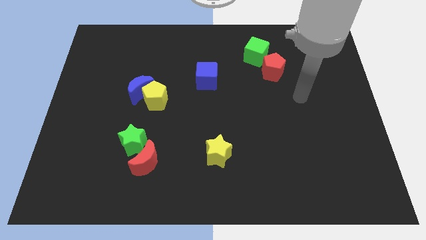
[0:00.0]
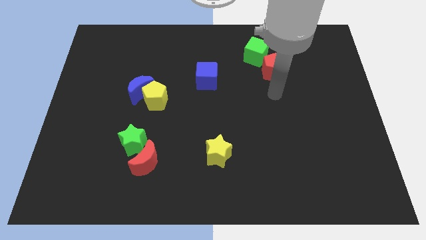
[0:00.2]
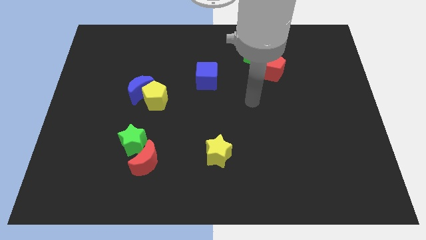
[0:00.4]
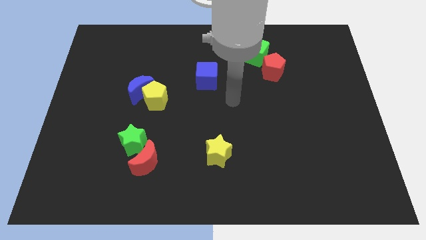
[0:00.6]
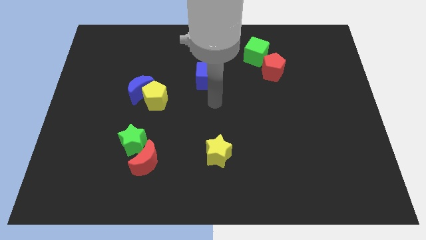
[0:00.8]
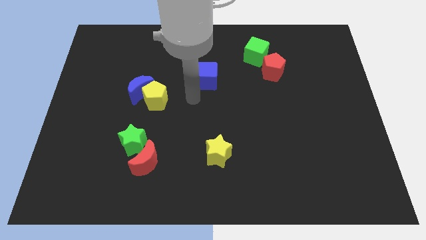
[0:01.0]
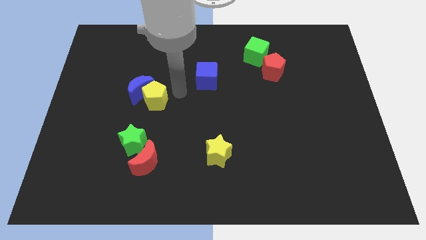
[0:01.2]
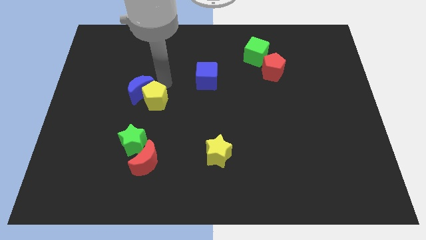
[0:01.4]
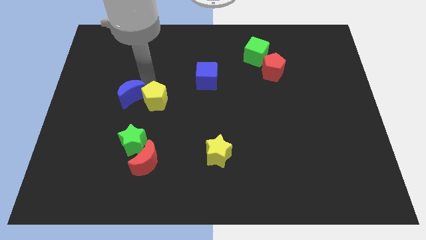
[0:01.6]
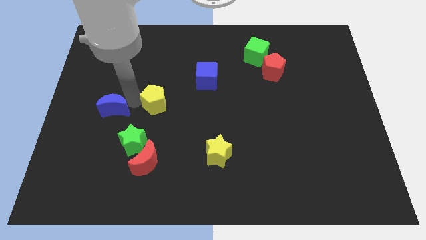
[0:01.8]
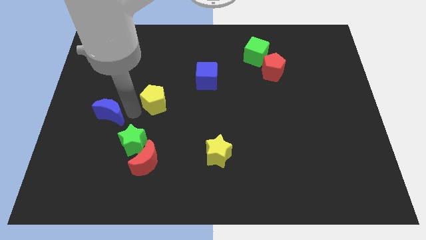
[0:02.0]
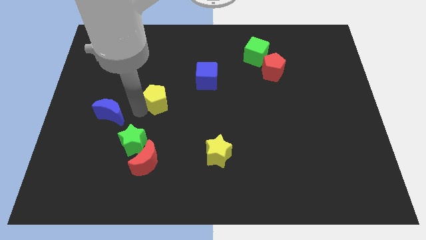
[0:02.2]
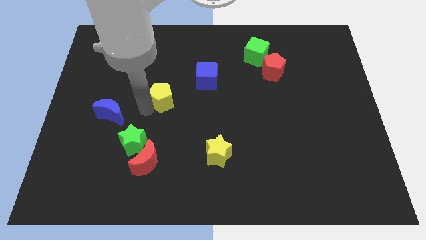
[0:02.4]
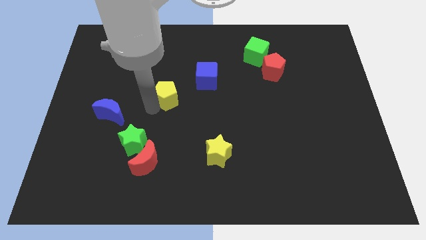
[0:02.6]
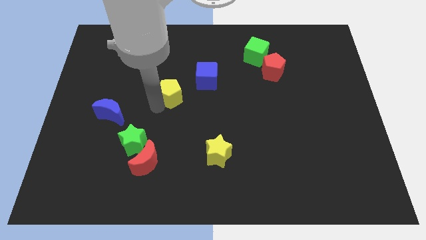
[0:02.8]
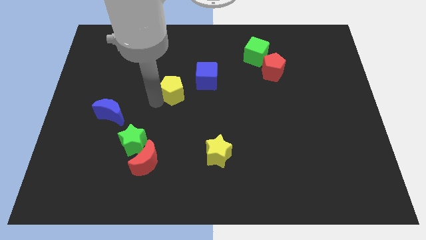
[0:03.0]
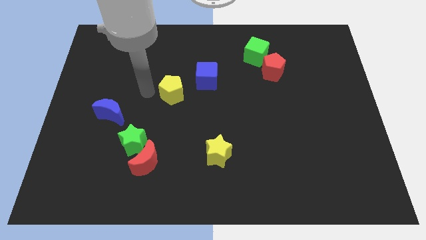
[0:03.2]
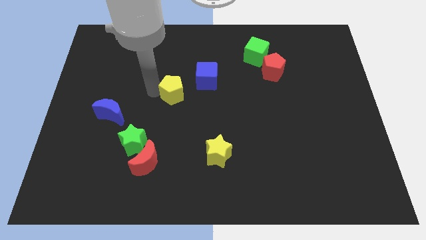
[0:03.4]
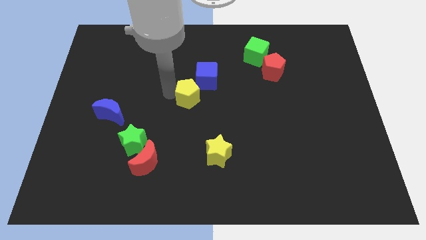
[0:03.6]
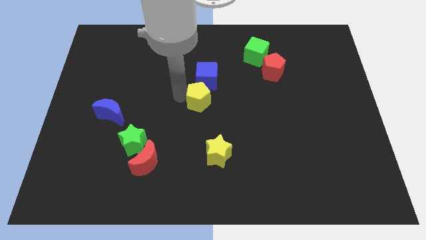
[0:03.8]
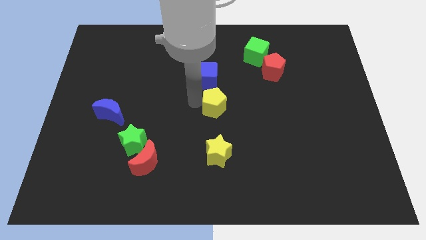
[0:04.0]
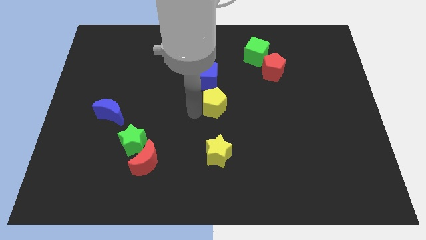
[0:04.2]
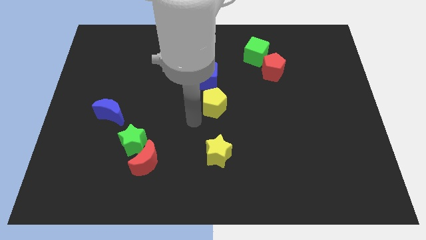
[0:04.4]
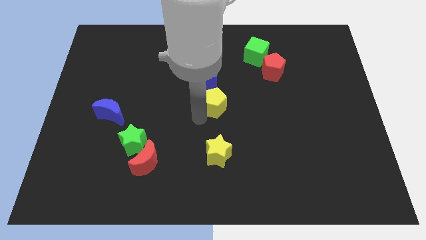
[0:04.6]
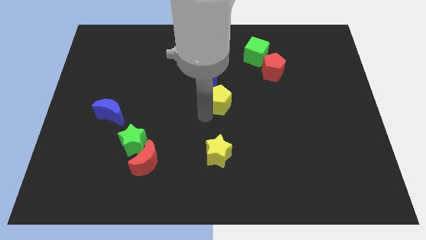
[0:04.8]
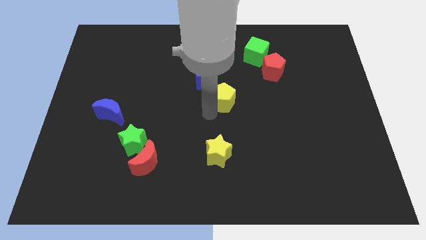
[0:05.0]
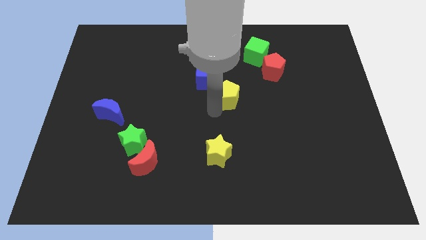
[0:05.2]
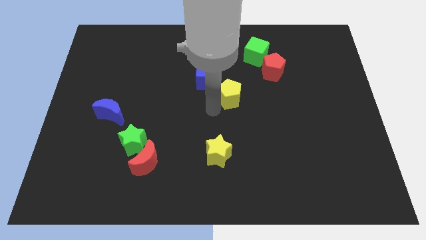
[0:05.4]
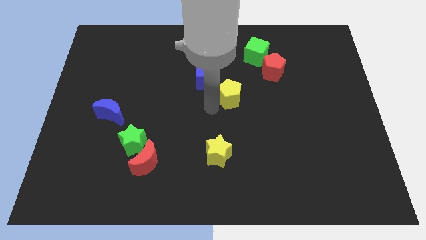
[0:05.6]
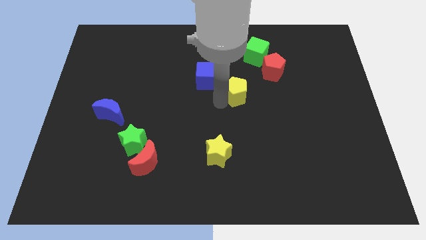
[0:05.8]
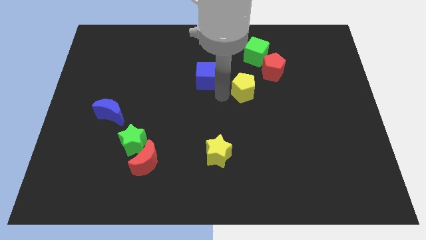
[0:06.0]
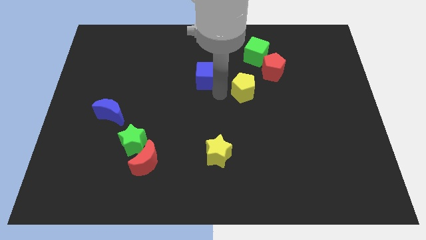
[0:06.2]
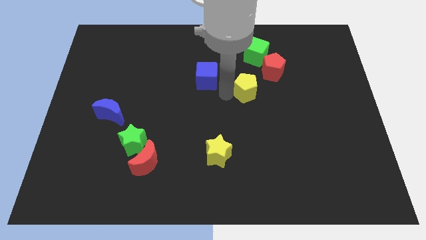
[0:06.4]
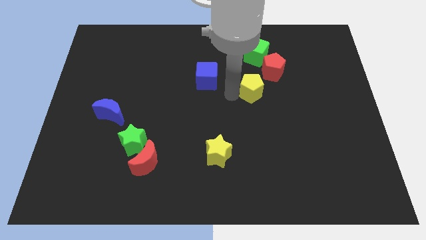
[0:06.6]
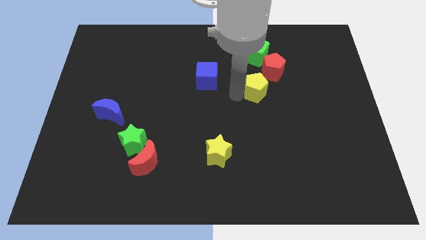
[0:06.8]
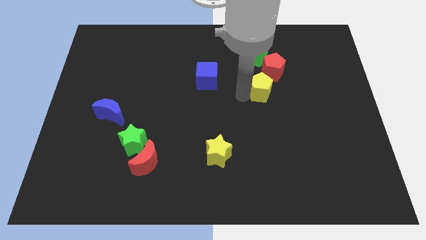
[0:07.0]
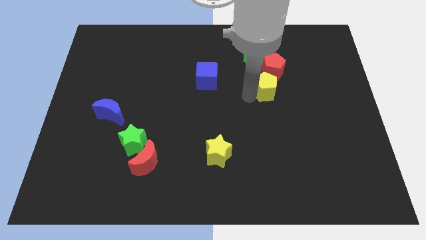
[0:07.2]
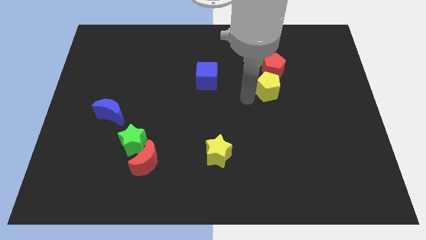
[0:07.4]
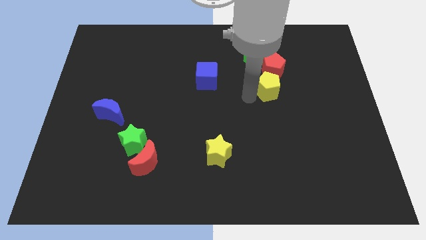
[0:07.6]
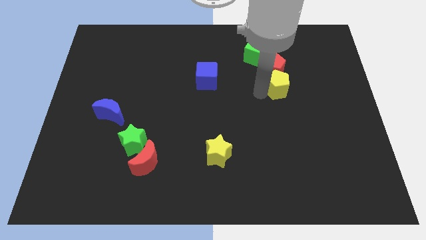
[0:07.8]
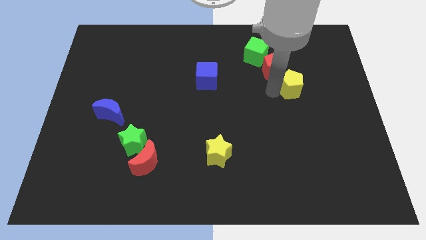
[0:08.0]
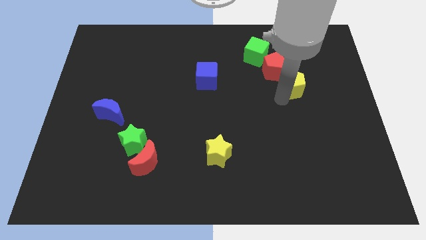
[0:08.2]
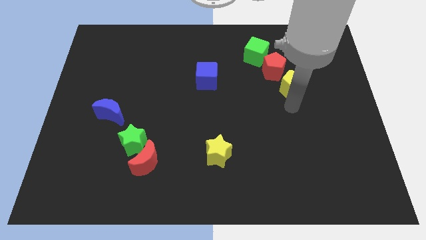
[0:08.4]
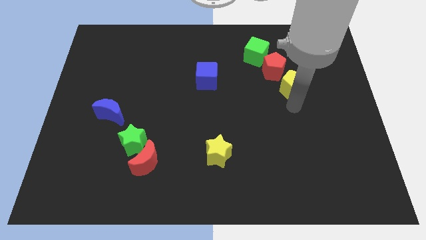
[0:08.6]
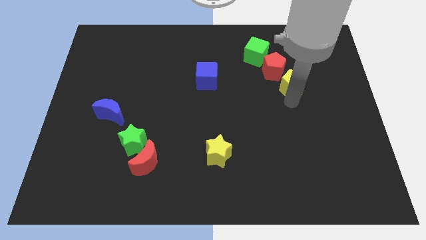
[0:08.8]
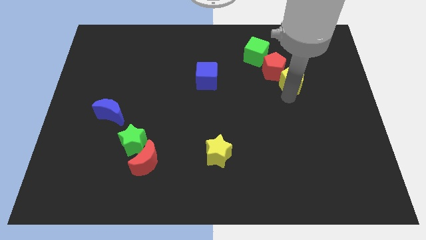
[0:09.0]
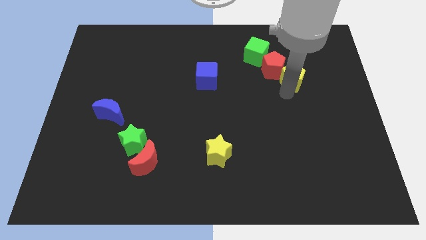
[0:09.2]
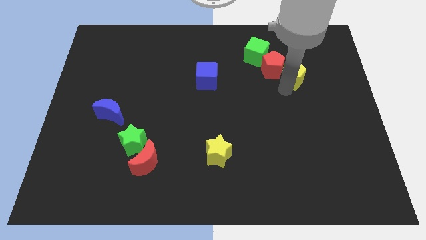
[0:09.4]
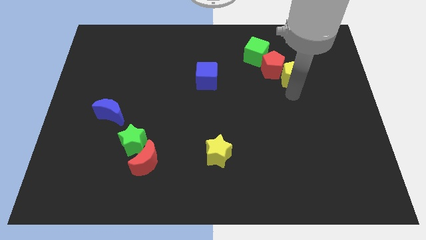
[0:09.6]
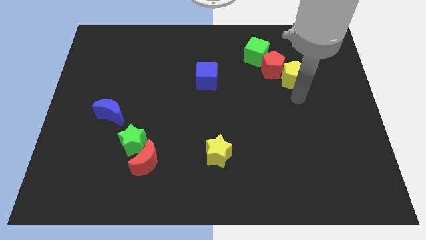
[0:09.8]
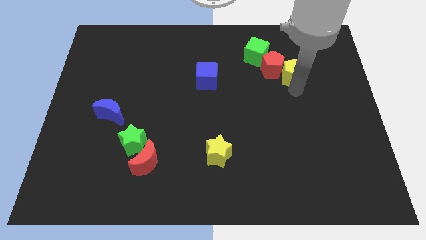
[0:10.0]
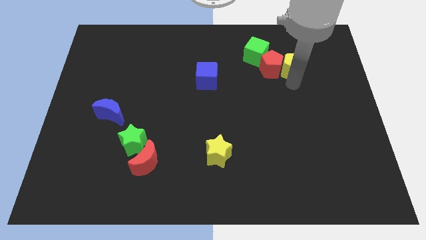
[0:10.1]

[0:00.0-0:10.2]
slide the yellow pentagon to the top right side of the red pentagon

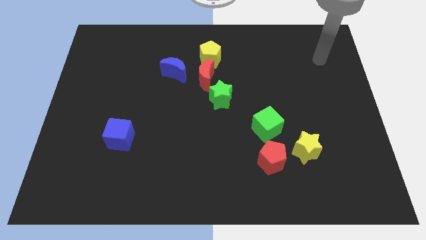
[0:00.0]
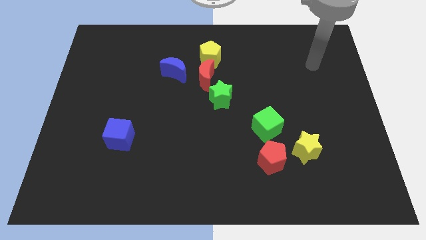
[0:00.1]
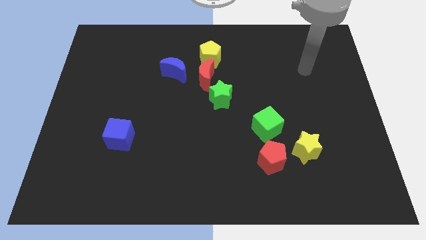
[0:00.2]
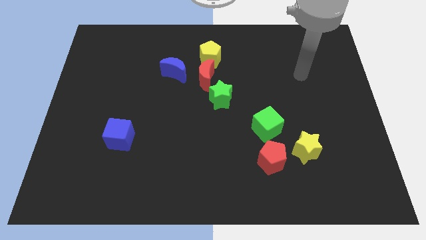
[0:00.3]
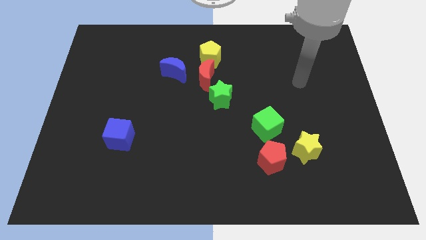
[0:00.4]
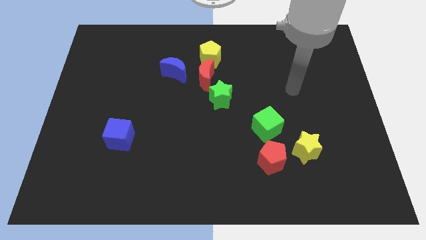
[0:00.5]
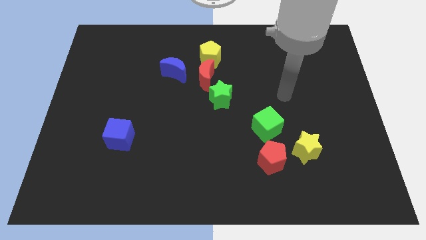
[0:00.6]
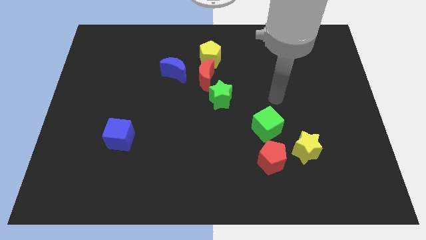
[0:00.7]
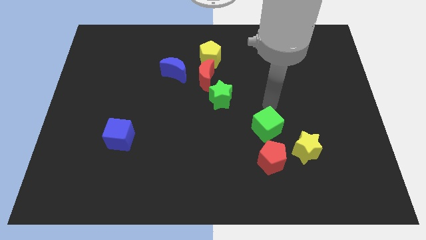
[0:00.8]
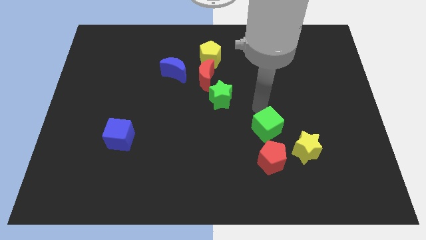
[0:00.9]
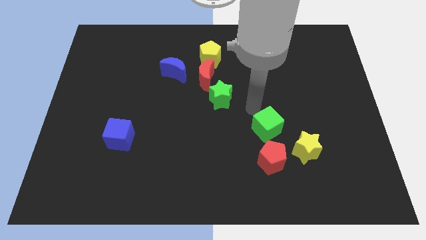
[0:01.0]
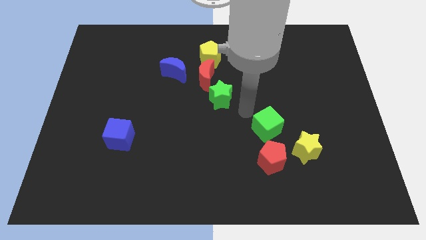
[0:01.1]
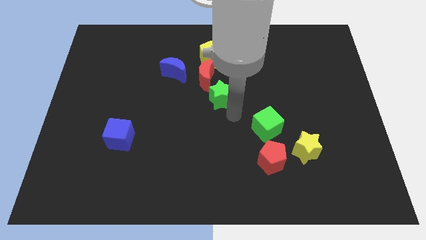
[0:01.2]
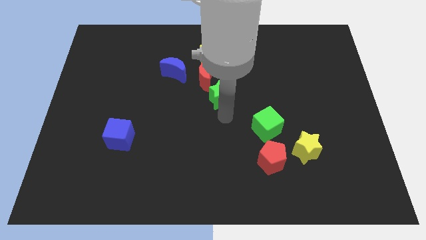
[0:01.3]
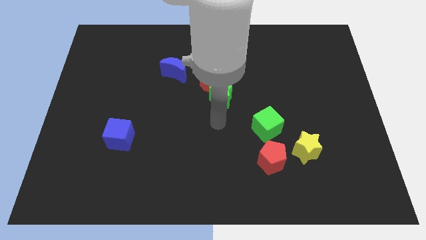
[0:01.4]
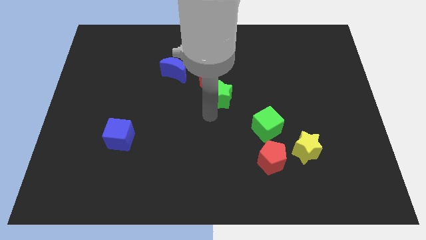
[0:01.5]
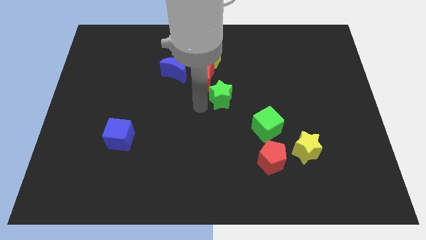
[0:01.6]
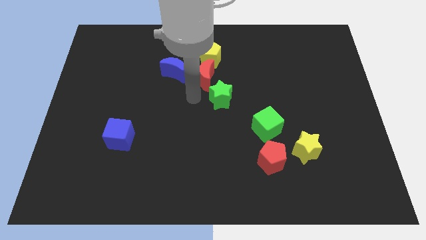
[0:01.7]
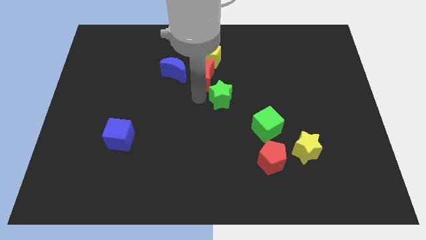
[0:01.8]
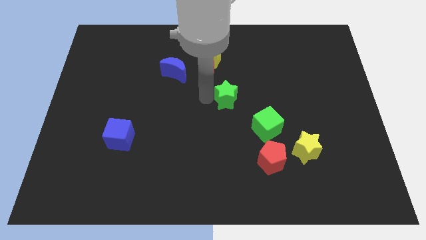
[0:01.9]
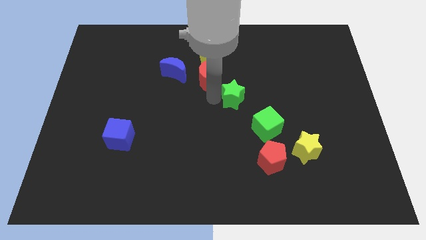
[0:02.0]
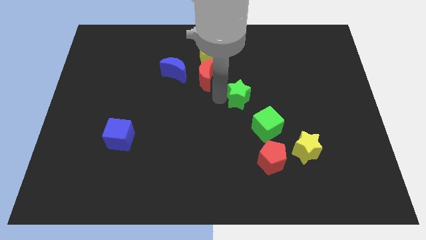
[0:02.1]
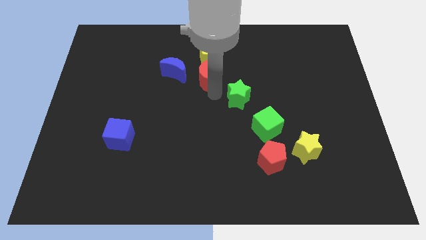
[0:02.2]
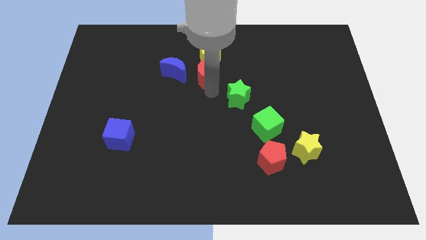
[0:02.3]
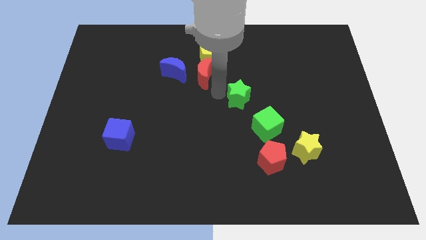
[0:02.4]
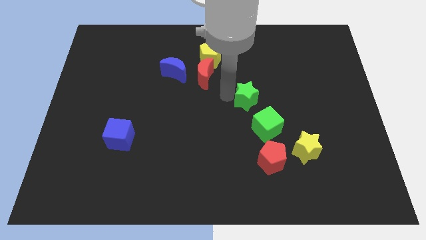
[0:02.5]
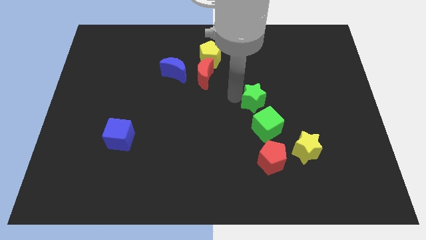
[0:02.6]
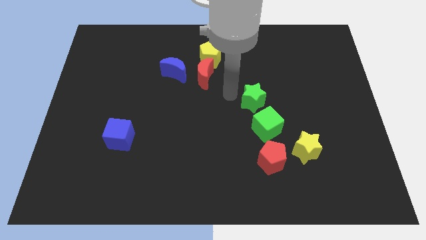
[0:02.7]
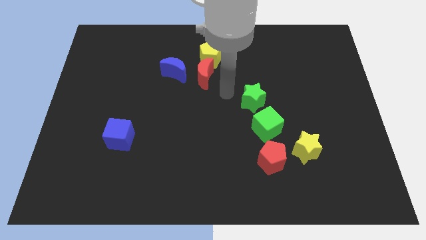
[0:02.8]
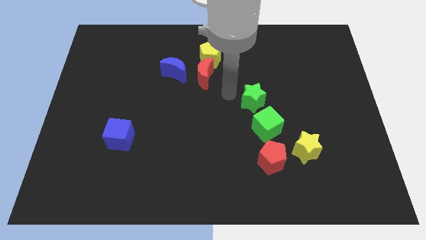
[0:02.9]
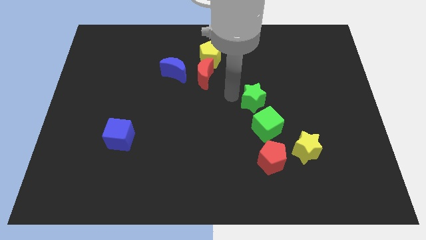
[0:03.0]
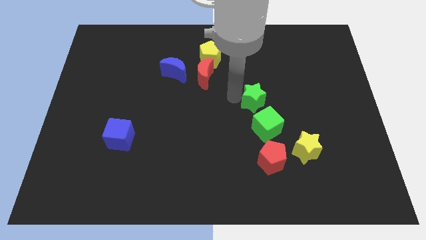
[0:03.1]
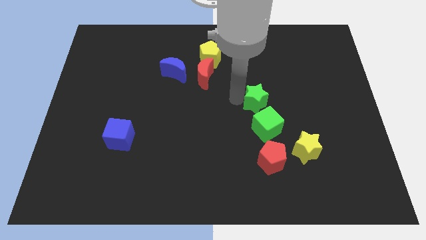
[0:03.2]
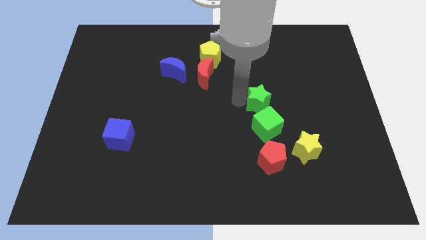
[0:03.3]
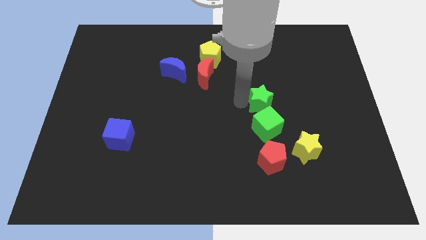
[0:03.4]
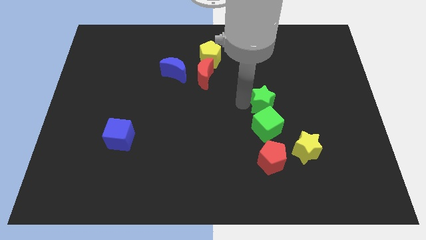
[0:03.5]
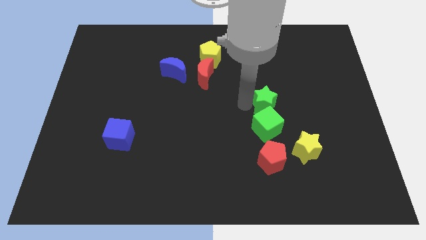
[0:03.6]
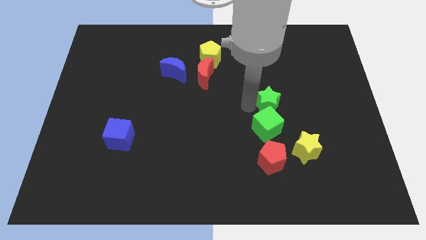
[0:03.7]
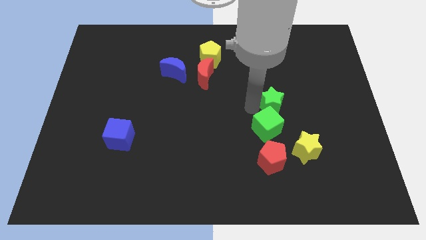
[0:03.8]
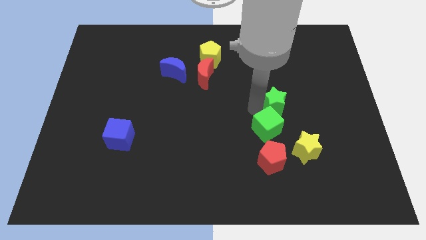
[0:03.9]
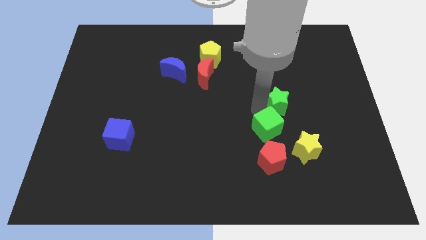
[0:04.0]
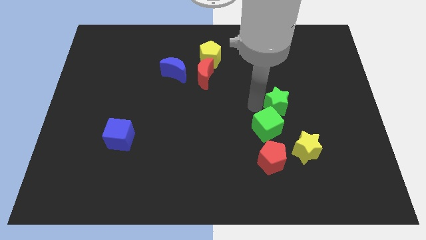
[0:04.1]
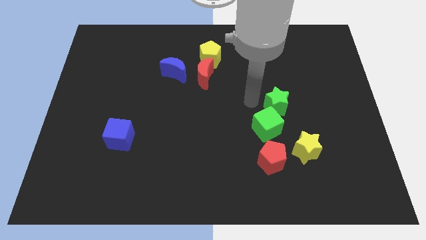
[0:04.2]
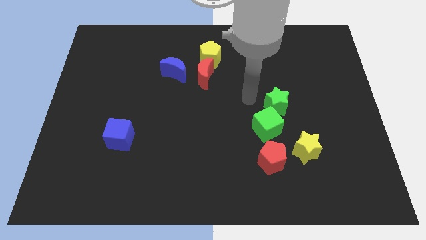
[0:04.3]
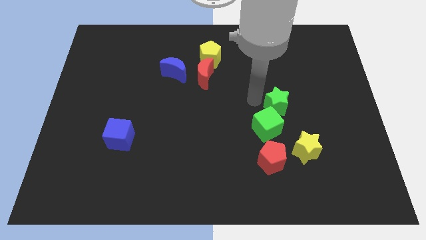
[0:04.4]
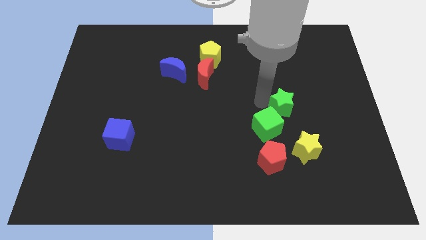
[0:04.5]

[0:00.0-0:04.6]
move the green star above the yellow star
